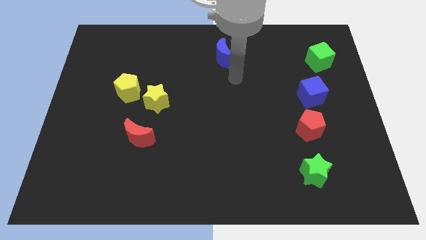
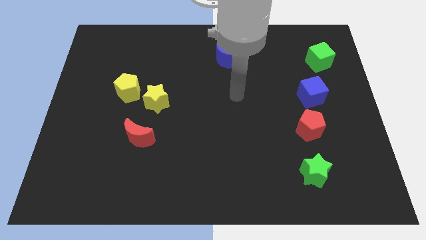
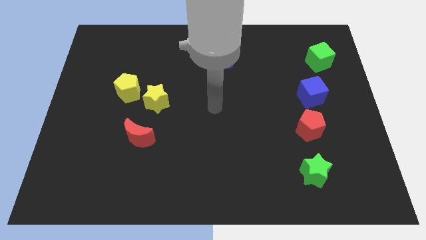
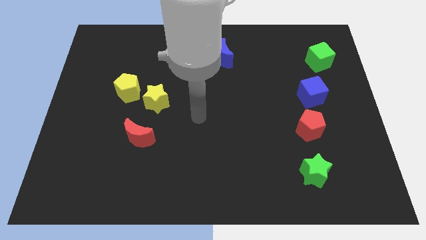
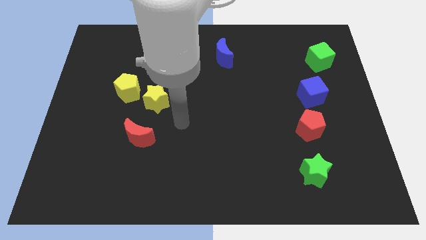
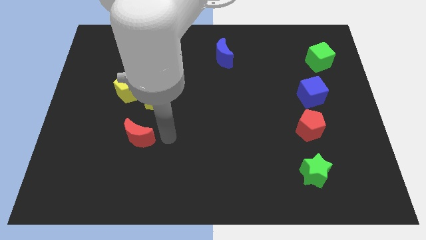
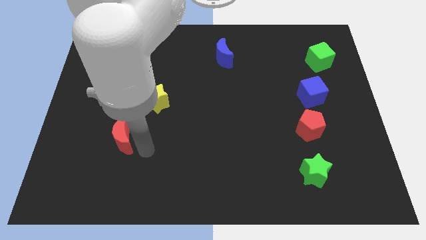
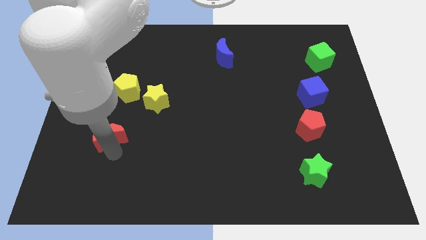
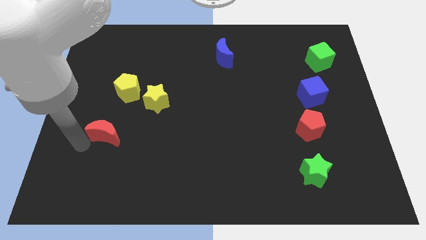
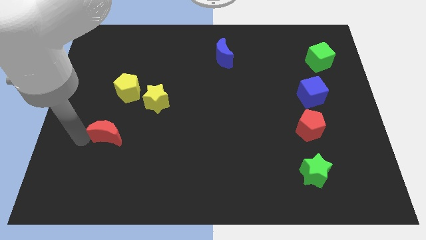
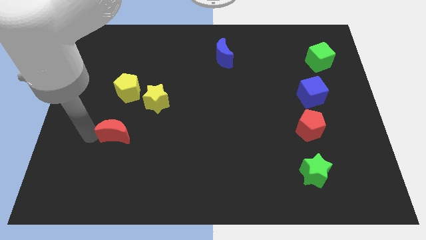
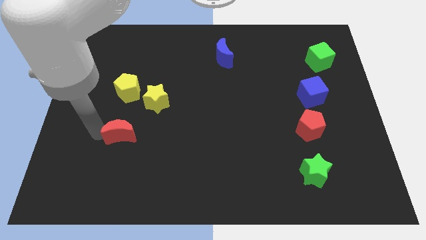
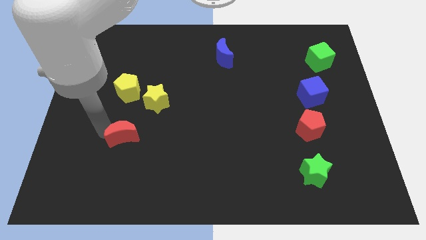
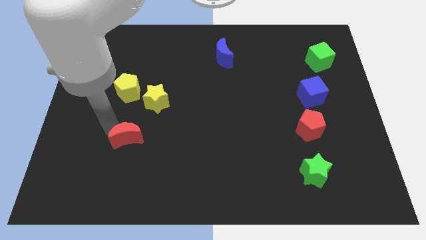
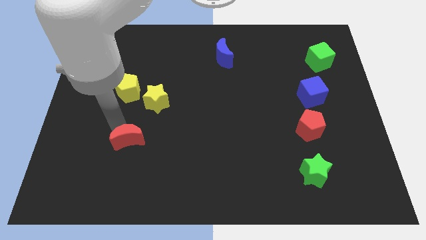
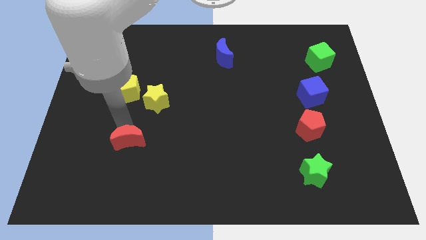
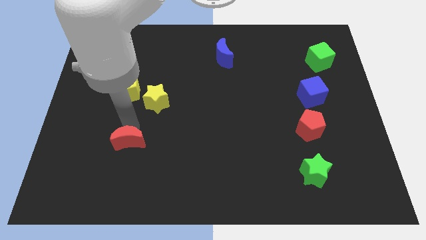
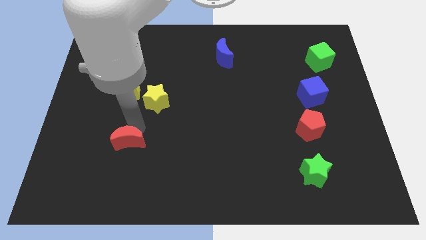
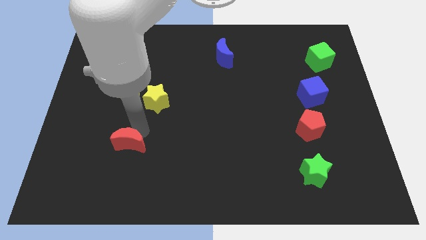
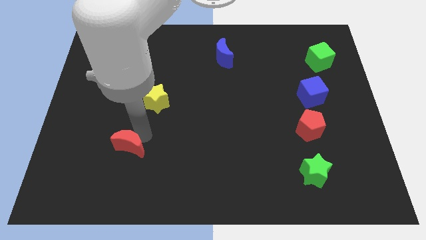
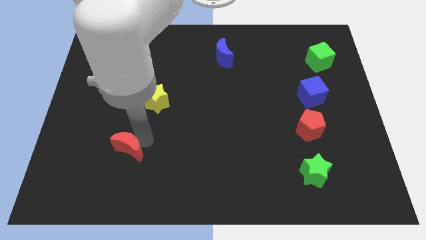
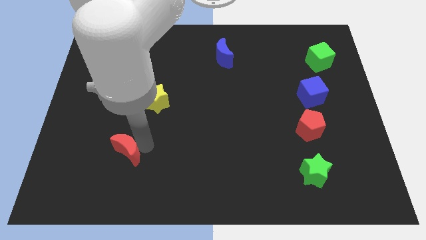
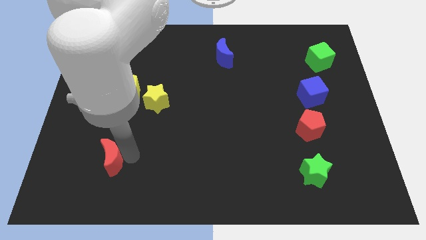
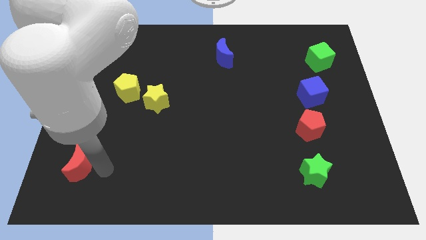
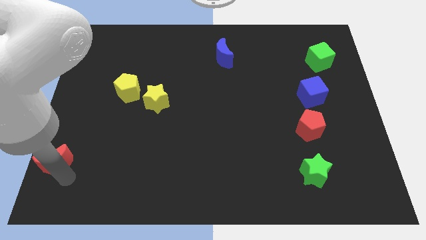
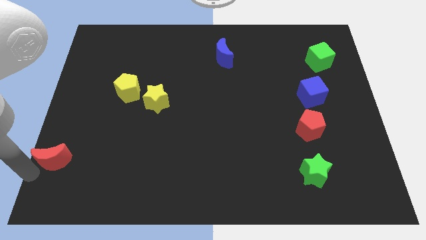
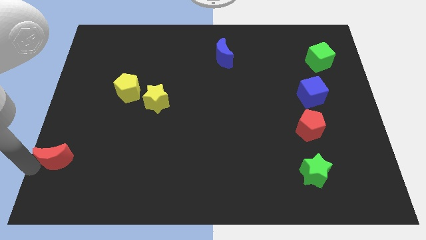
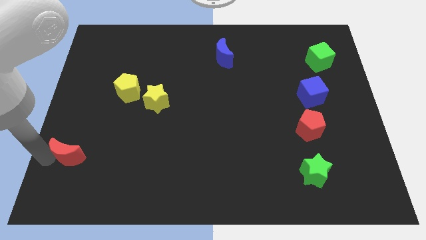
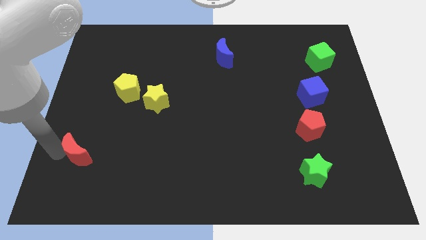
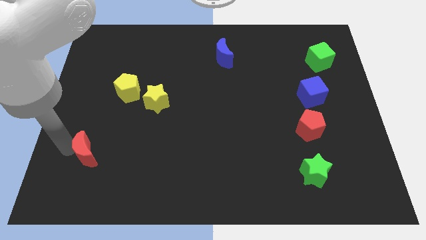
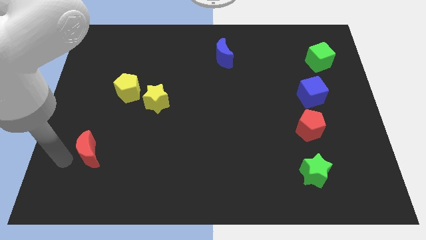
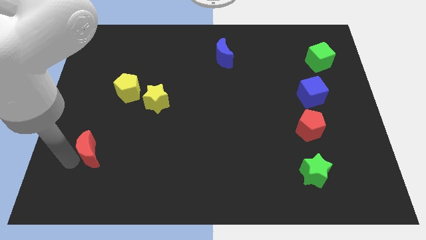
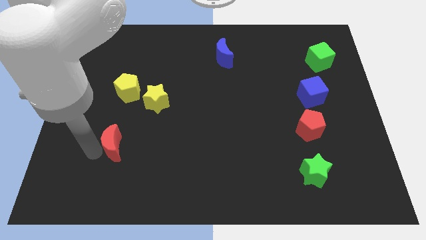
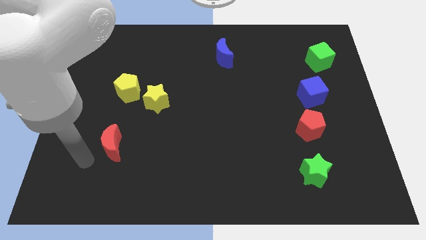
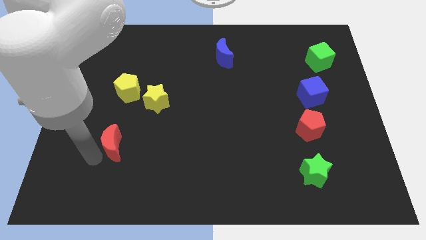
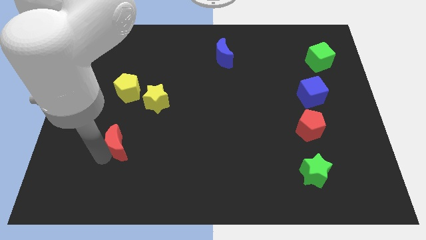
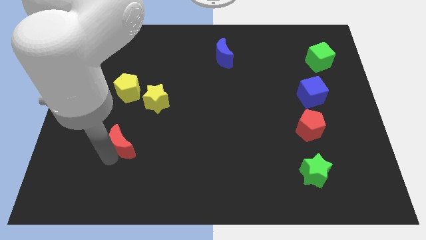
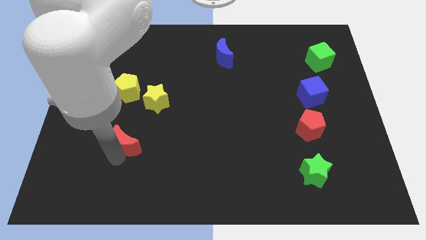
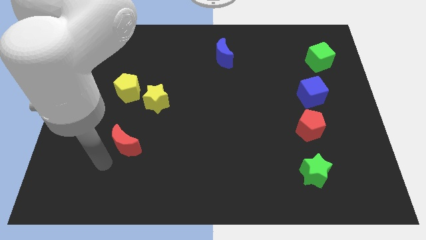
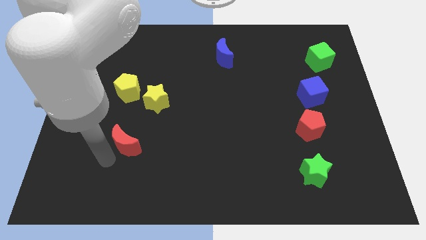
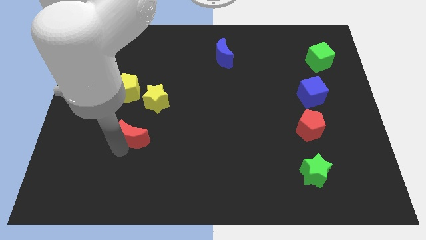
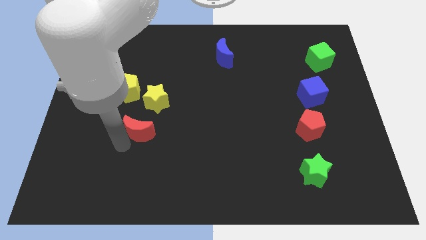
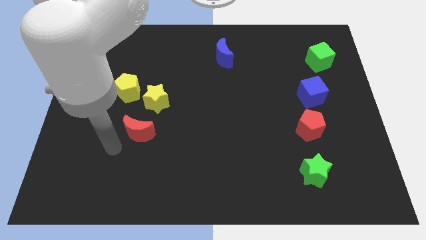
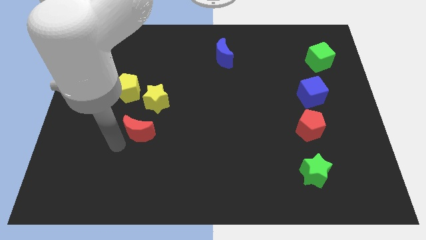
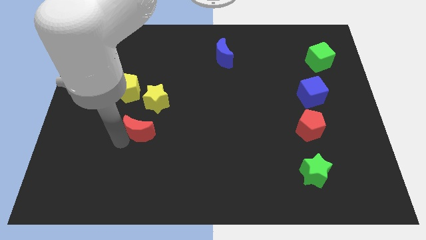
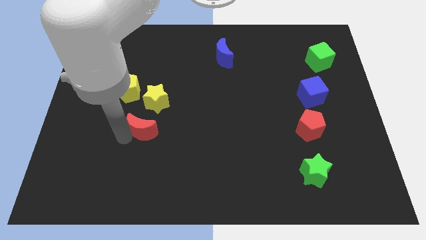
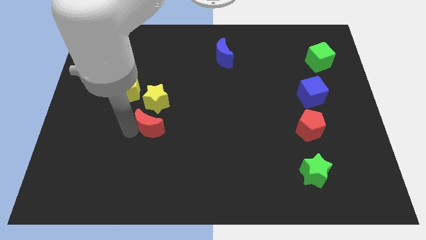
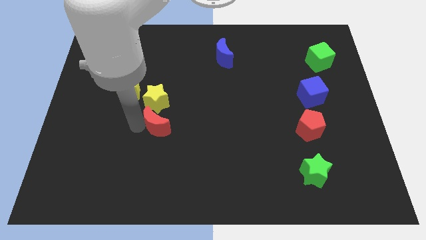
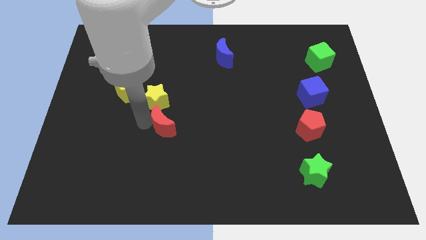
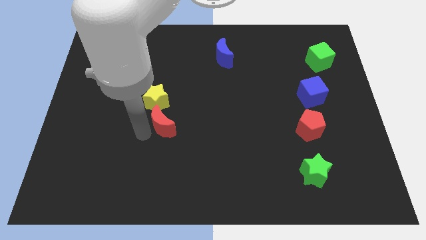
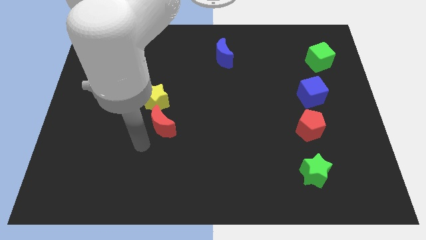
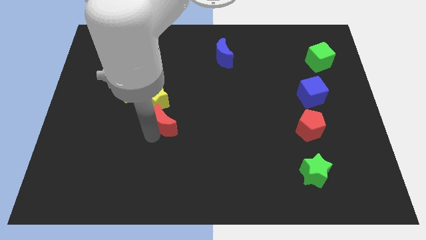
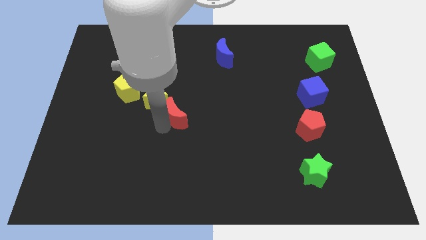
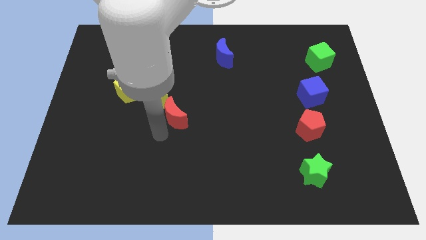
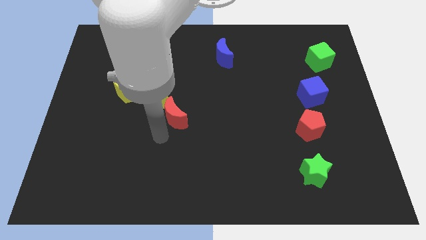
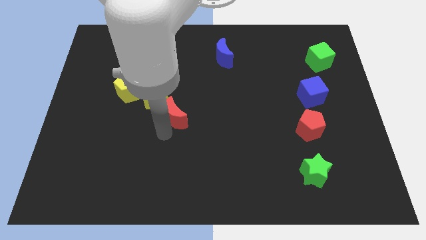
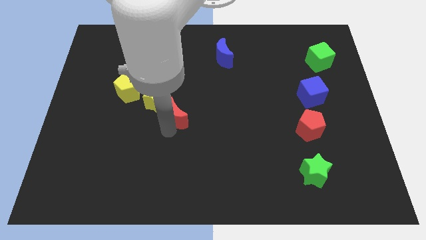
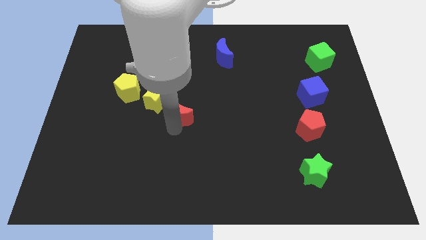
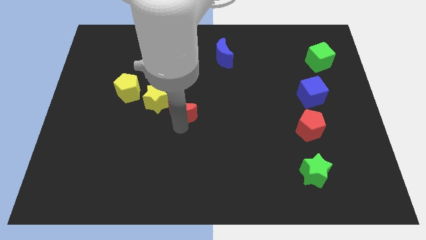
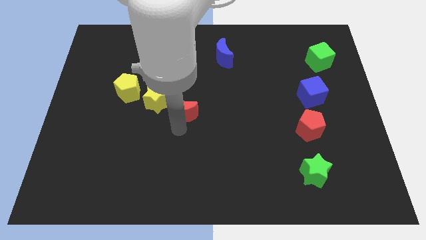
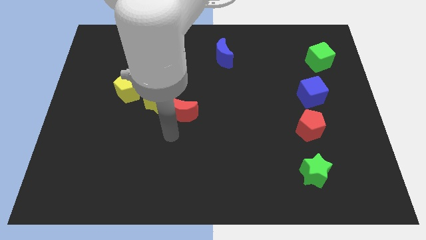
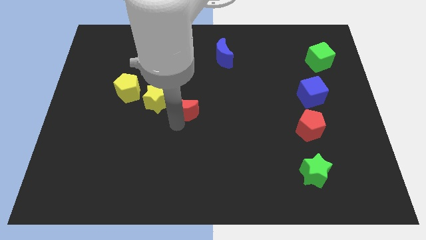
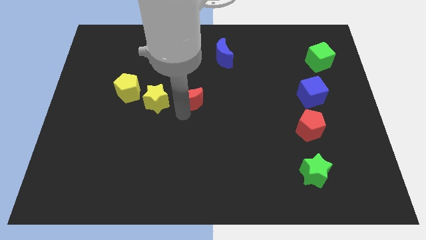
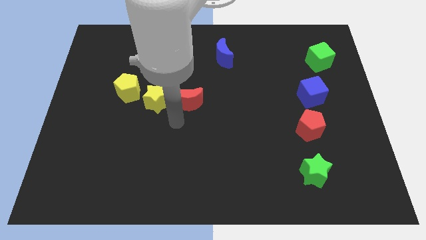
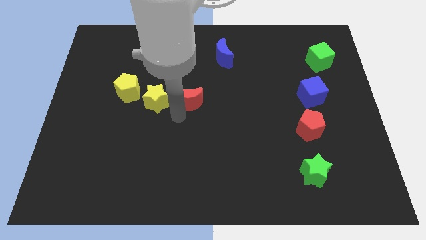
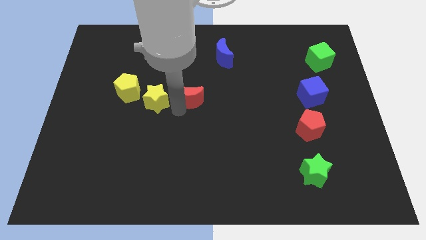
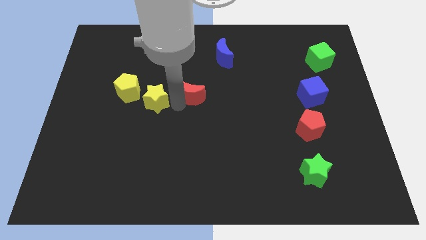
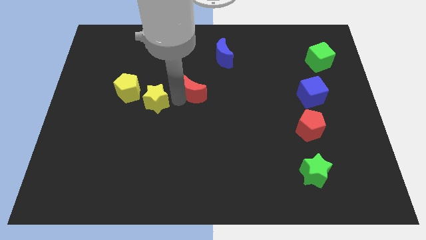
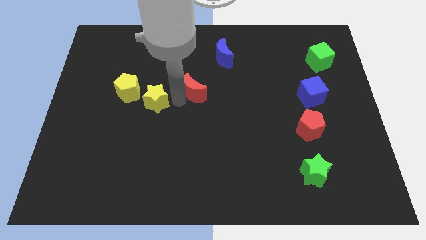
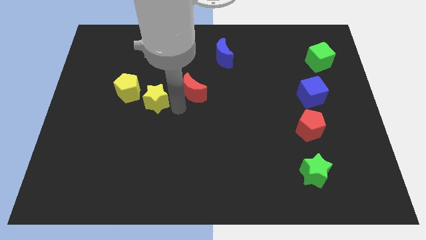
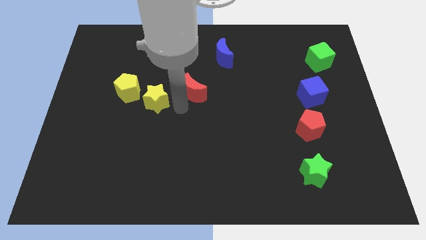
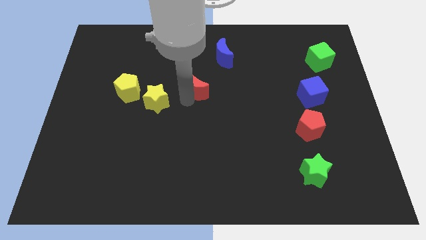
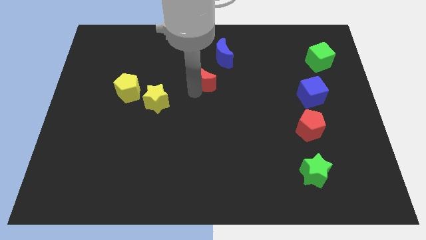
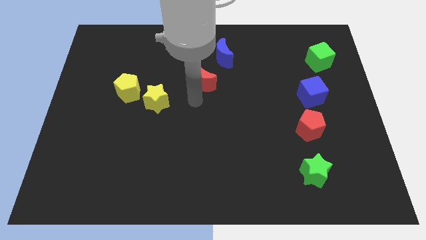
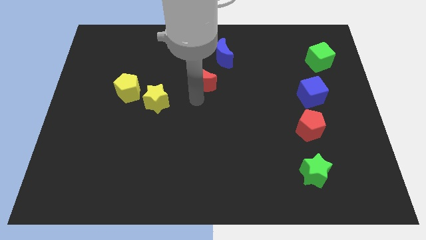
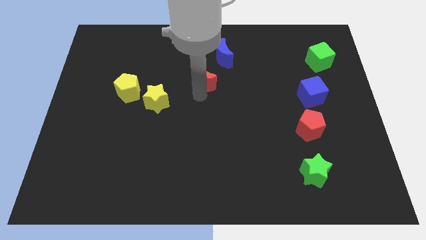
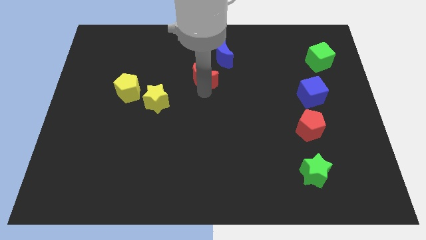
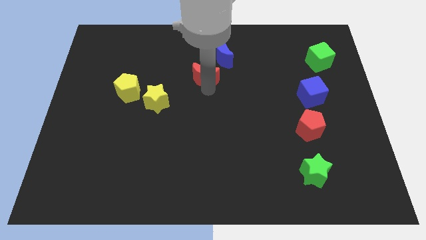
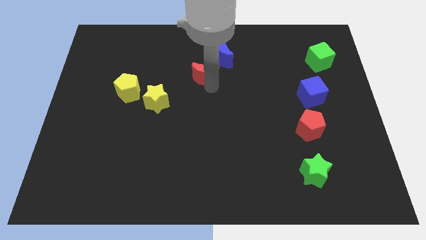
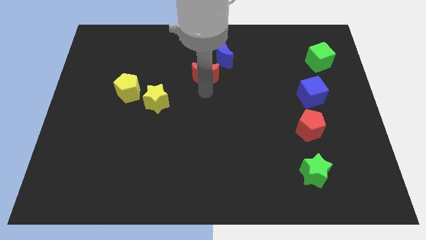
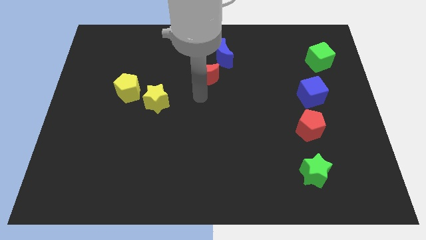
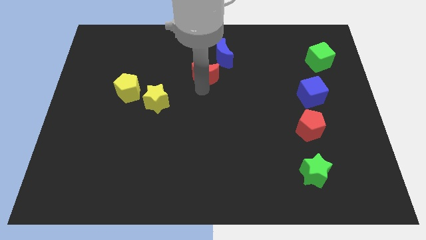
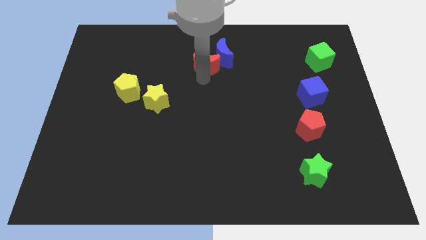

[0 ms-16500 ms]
slide the red moon towards the blue moon
